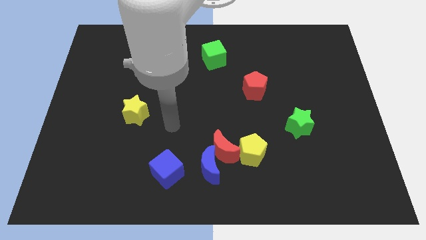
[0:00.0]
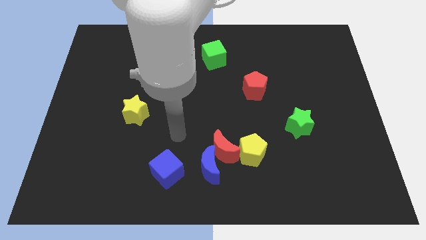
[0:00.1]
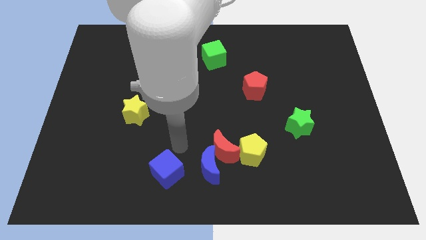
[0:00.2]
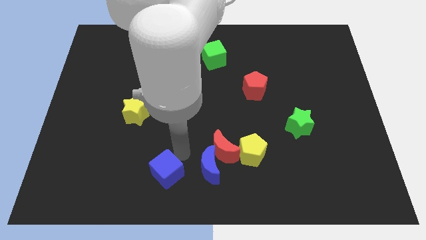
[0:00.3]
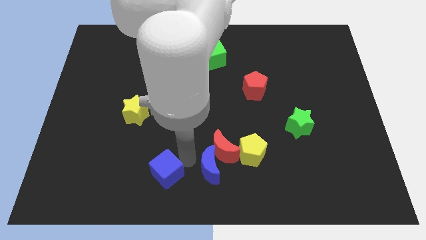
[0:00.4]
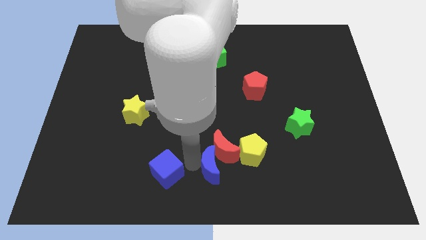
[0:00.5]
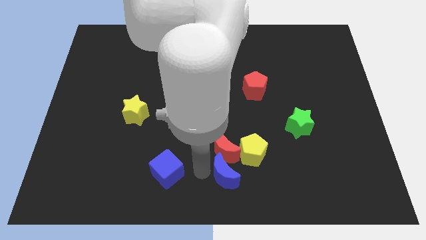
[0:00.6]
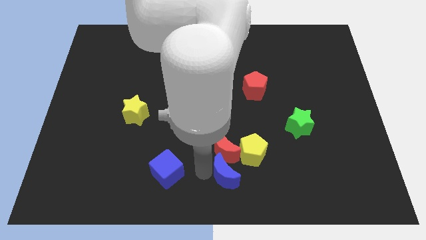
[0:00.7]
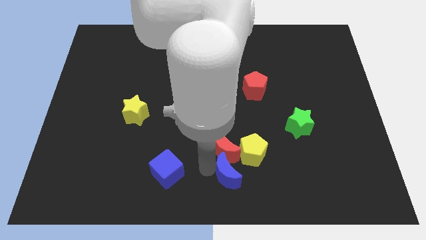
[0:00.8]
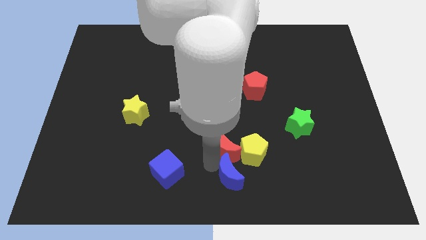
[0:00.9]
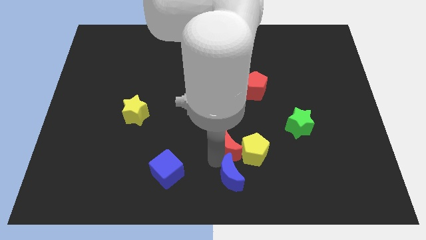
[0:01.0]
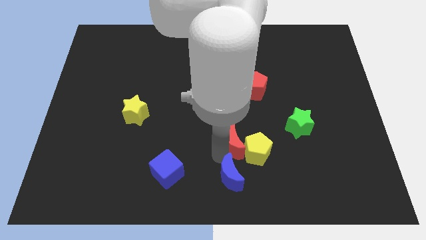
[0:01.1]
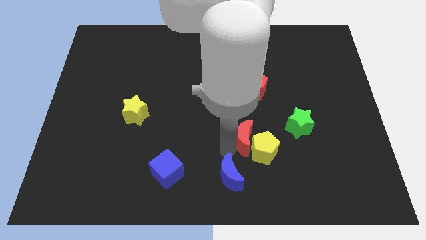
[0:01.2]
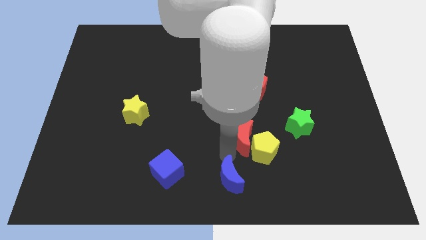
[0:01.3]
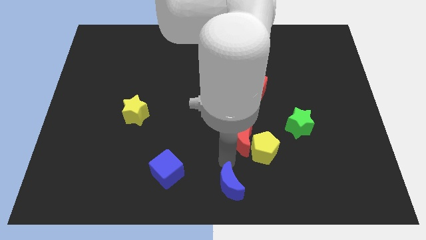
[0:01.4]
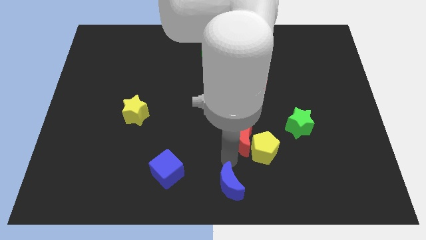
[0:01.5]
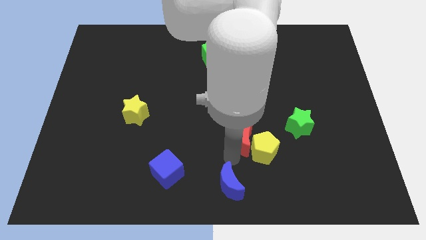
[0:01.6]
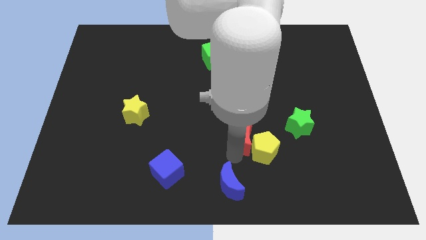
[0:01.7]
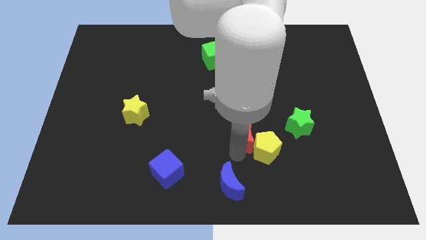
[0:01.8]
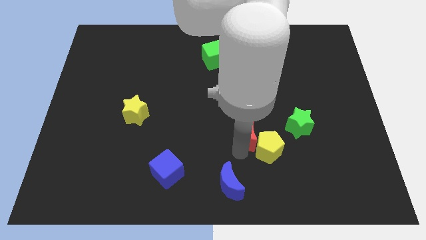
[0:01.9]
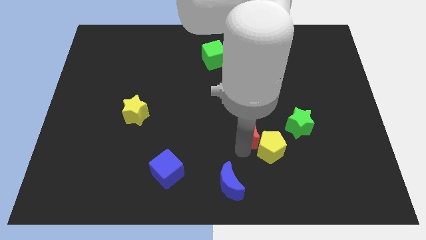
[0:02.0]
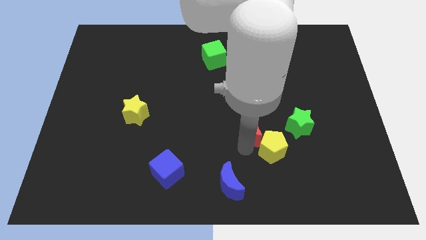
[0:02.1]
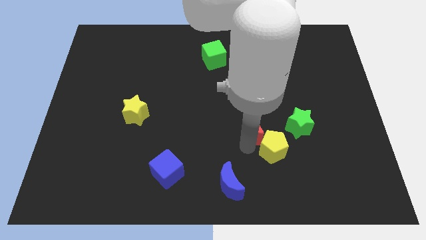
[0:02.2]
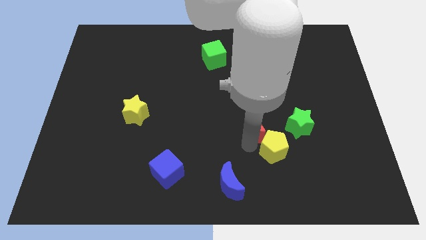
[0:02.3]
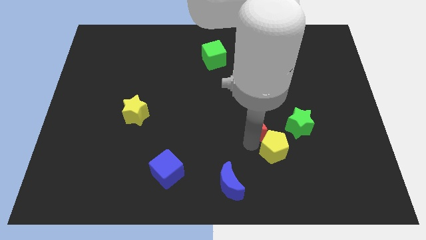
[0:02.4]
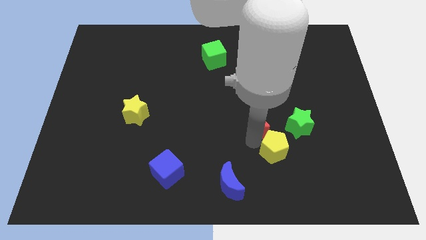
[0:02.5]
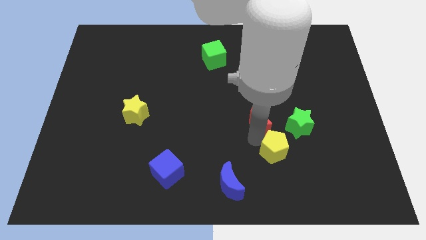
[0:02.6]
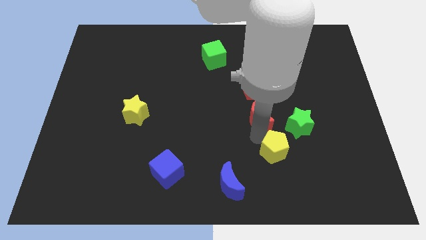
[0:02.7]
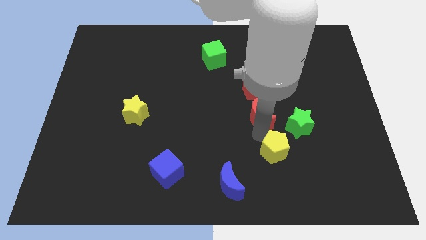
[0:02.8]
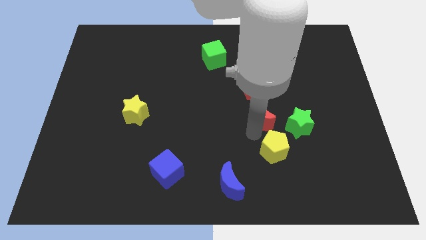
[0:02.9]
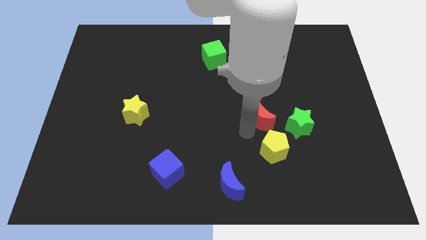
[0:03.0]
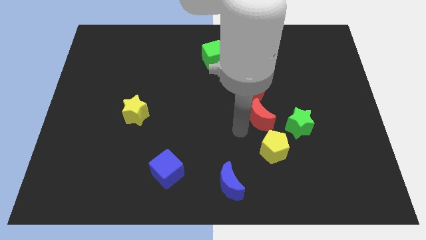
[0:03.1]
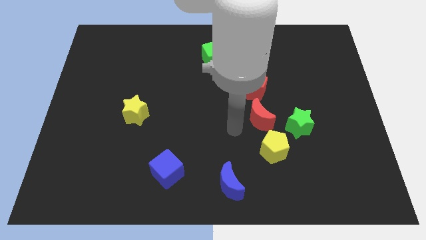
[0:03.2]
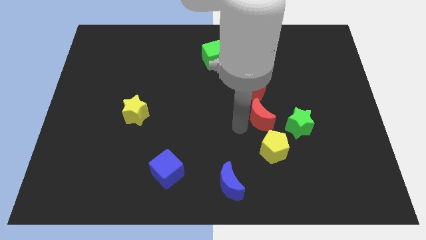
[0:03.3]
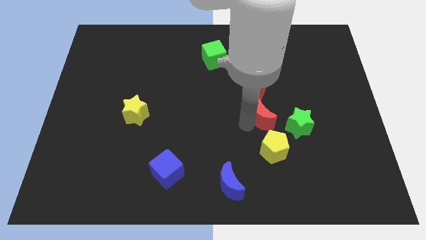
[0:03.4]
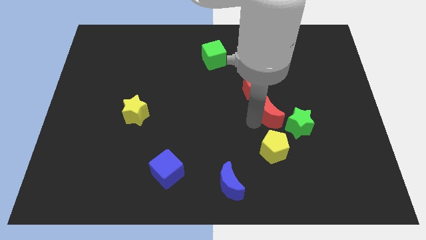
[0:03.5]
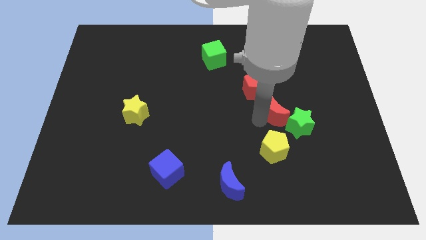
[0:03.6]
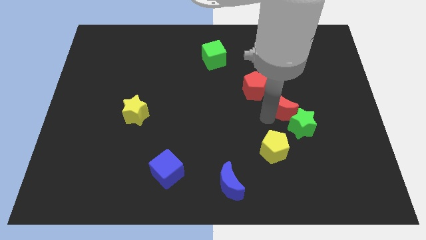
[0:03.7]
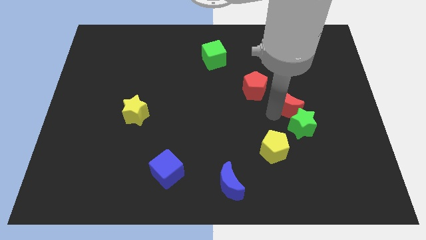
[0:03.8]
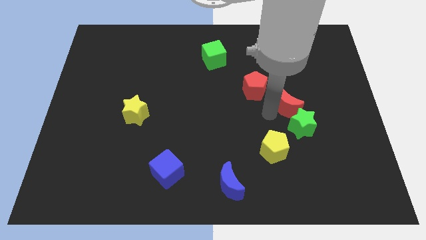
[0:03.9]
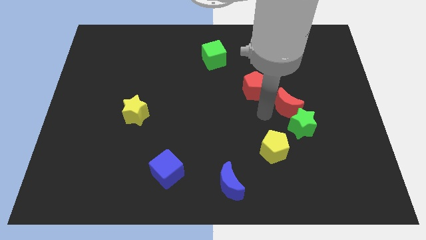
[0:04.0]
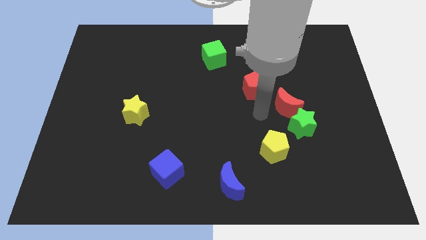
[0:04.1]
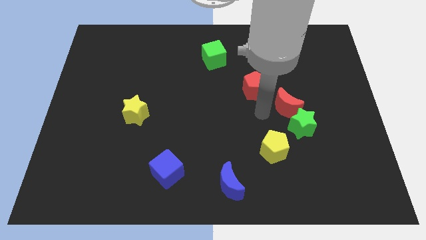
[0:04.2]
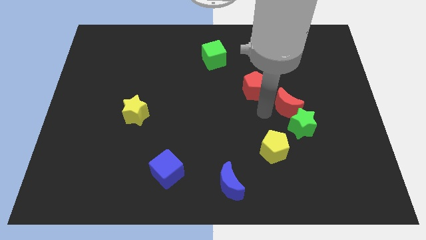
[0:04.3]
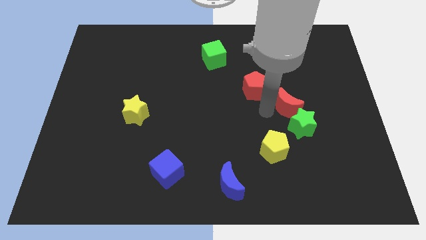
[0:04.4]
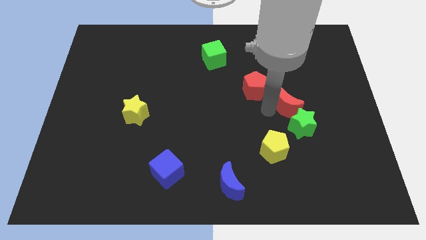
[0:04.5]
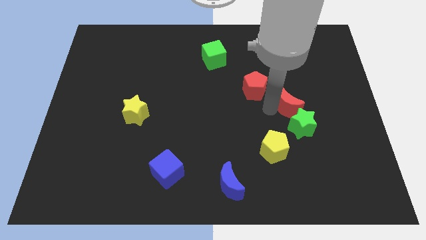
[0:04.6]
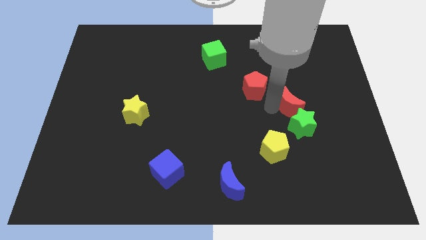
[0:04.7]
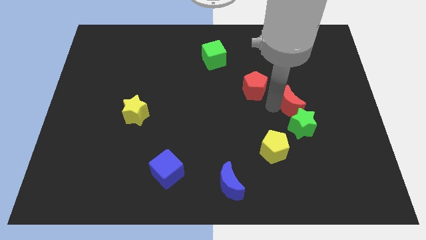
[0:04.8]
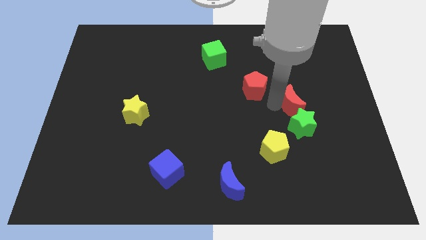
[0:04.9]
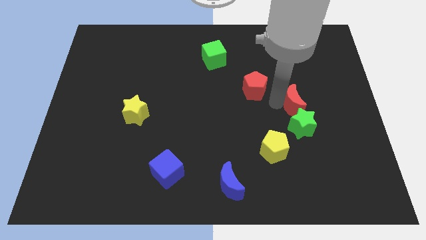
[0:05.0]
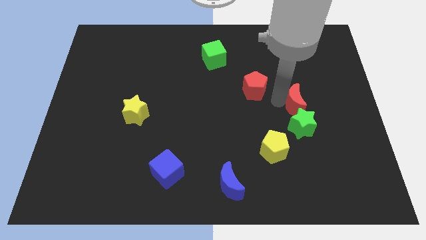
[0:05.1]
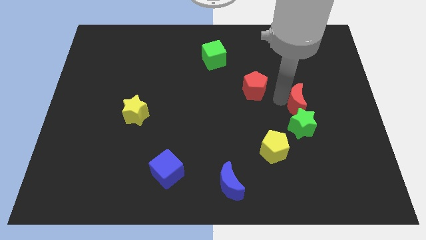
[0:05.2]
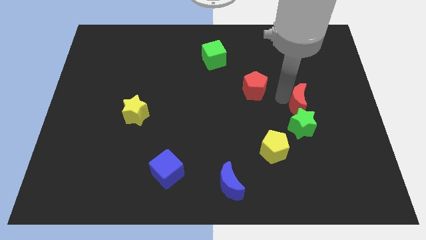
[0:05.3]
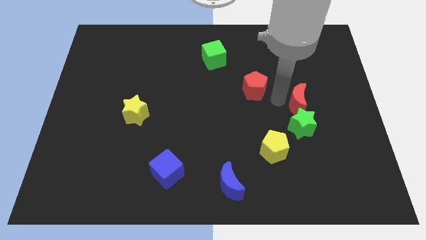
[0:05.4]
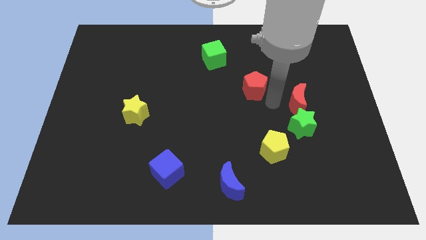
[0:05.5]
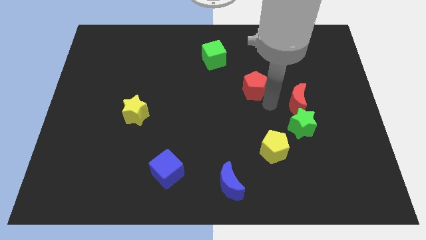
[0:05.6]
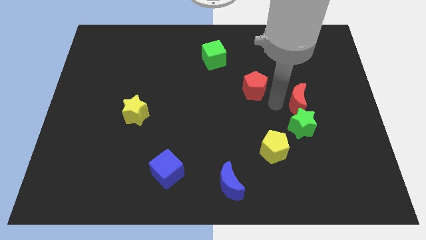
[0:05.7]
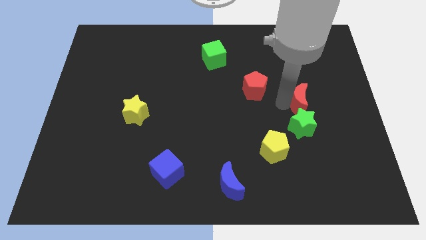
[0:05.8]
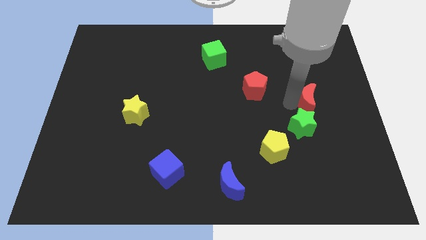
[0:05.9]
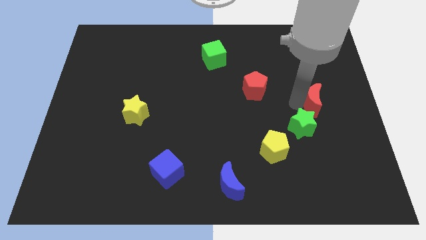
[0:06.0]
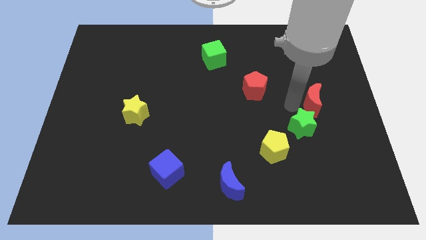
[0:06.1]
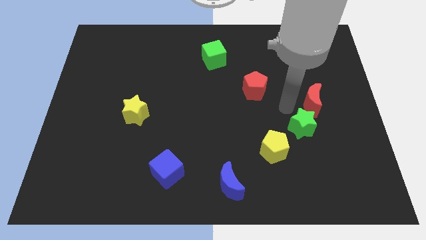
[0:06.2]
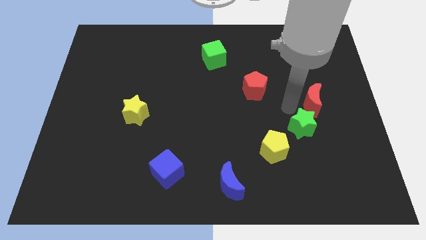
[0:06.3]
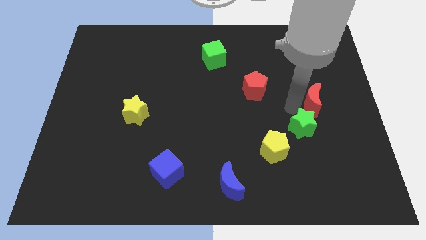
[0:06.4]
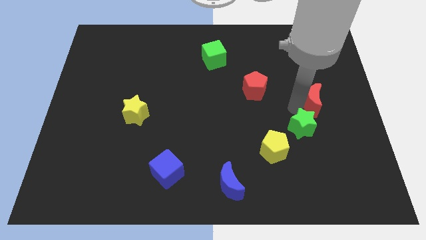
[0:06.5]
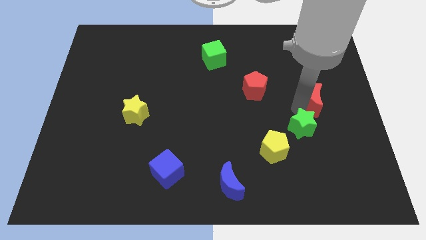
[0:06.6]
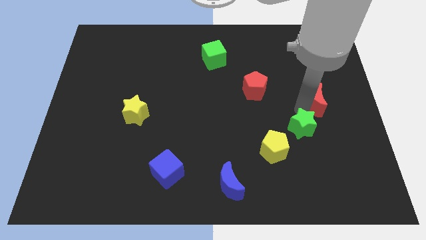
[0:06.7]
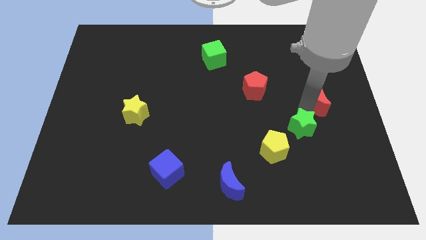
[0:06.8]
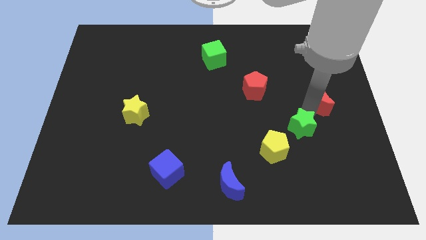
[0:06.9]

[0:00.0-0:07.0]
put the red moon to the right side of the board
